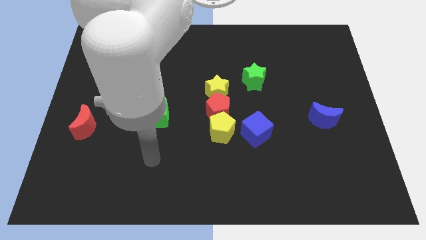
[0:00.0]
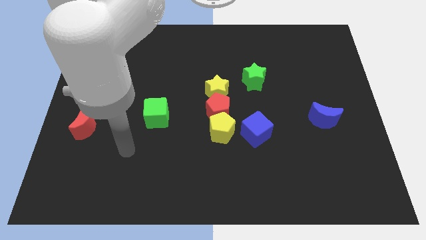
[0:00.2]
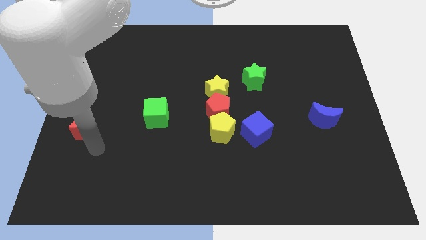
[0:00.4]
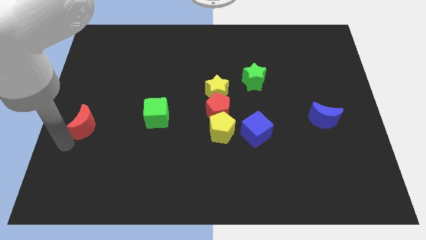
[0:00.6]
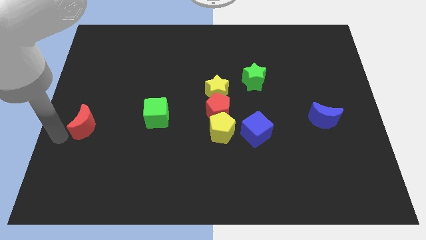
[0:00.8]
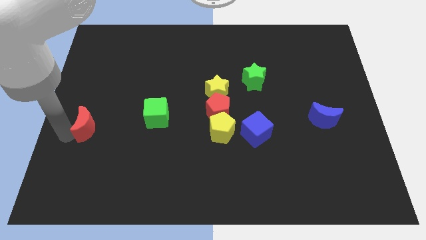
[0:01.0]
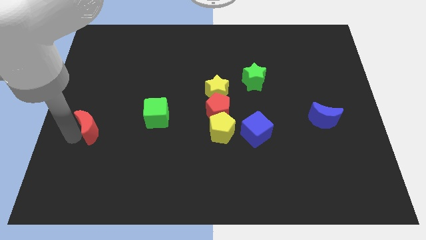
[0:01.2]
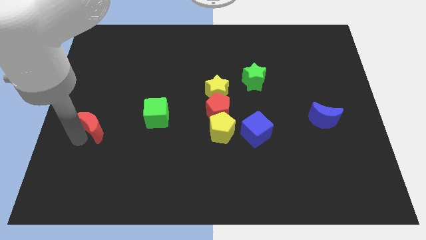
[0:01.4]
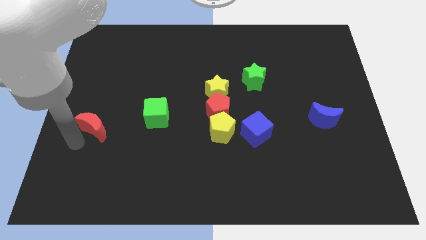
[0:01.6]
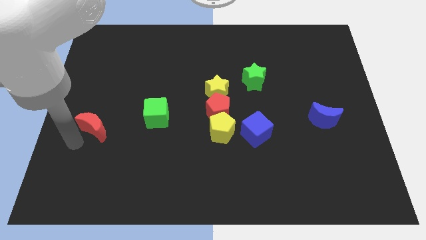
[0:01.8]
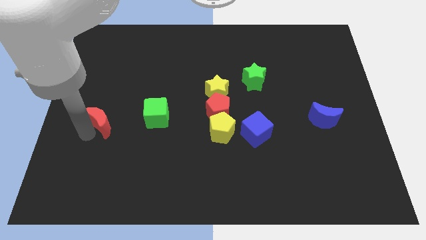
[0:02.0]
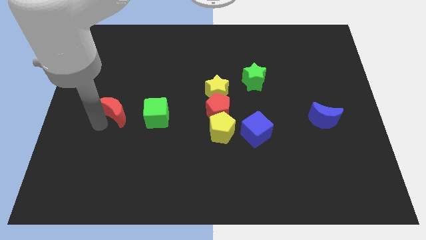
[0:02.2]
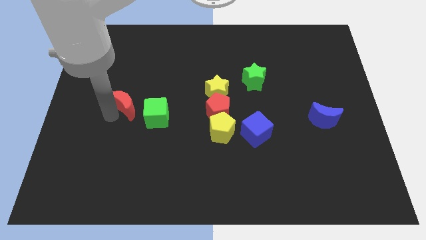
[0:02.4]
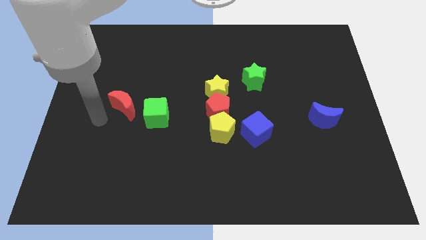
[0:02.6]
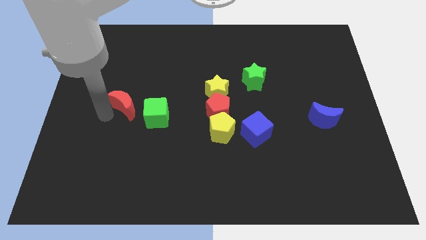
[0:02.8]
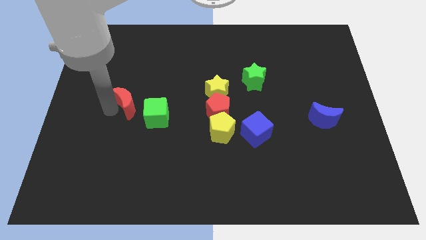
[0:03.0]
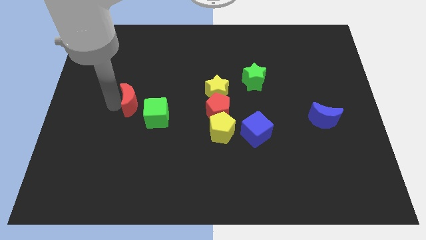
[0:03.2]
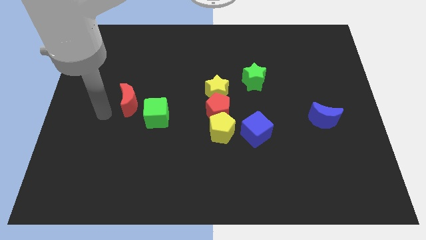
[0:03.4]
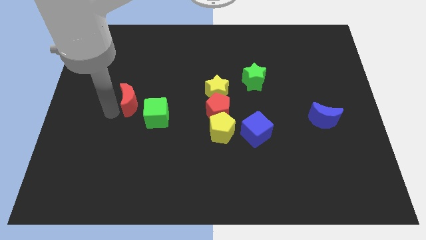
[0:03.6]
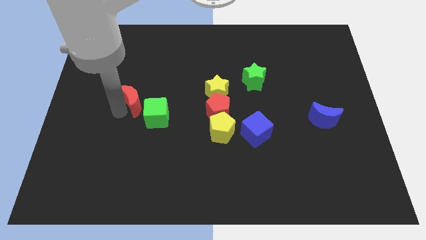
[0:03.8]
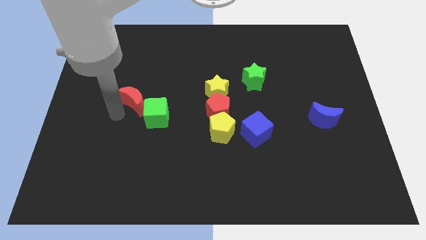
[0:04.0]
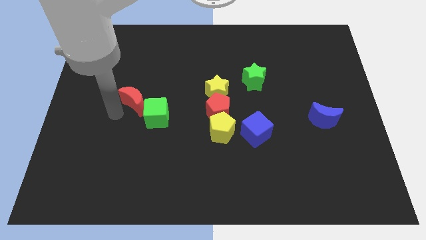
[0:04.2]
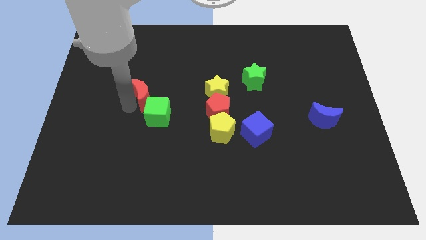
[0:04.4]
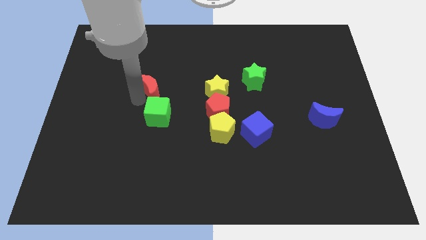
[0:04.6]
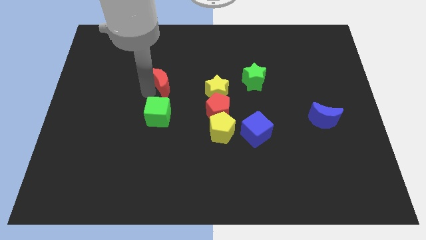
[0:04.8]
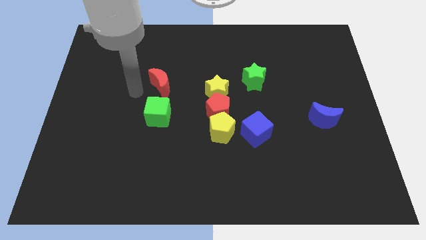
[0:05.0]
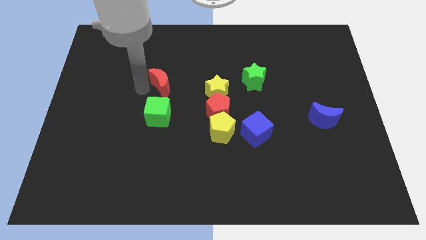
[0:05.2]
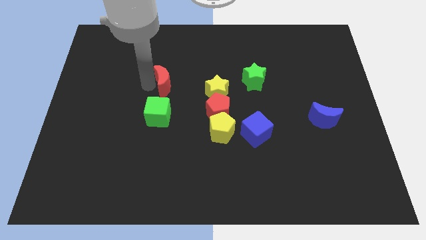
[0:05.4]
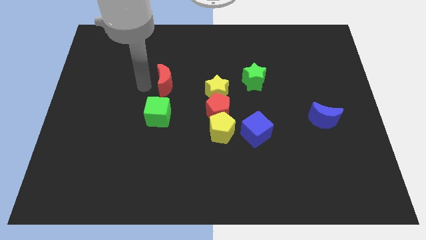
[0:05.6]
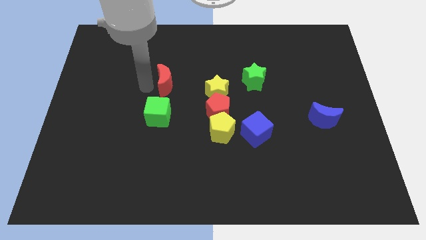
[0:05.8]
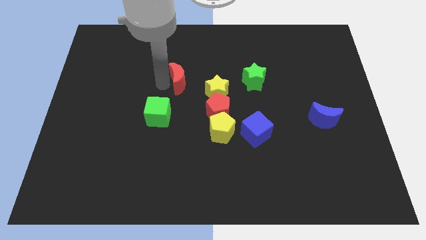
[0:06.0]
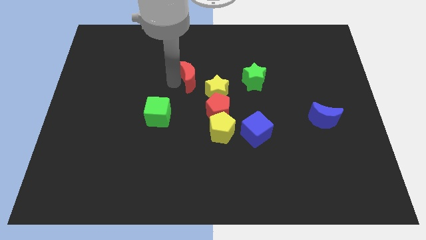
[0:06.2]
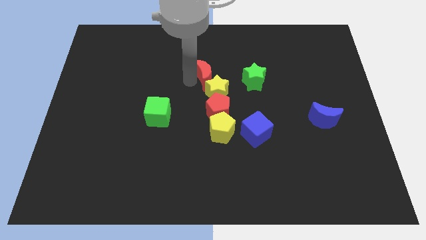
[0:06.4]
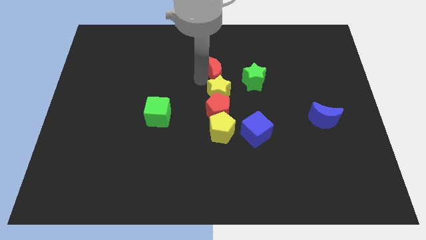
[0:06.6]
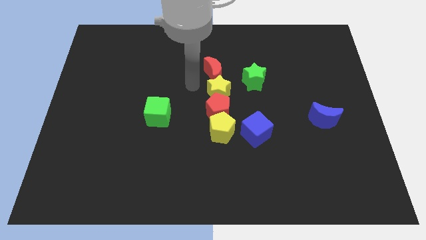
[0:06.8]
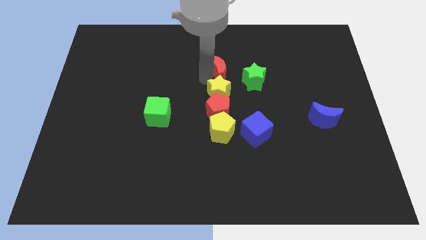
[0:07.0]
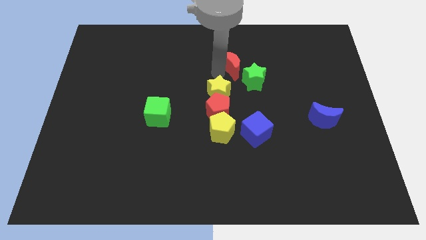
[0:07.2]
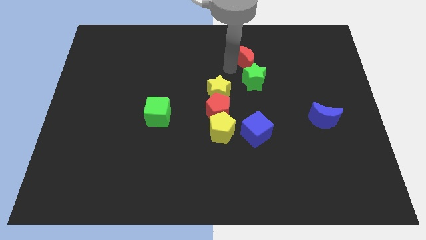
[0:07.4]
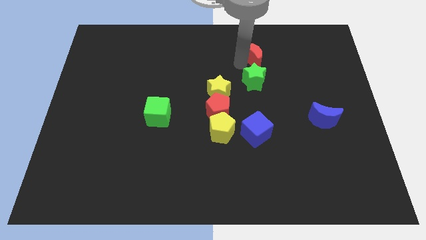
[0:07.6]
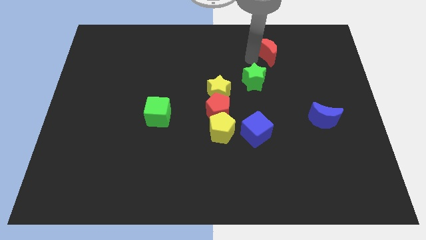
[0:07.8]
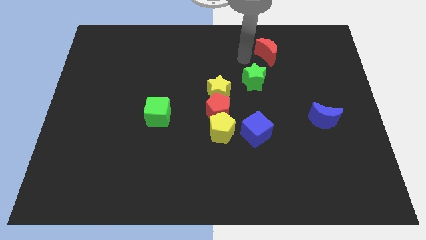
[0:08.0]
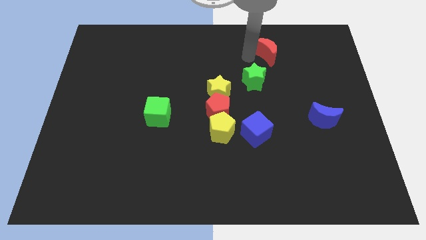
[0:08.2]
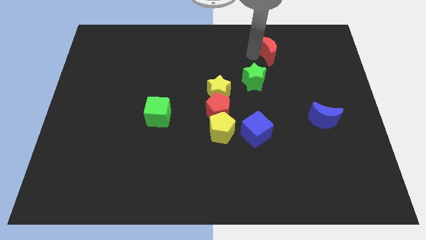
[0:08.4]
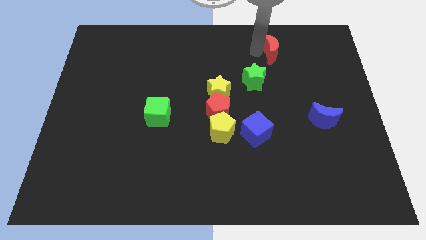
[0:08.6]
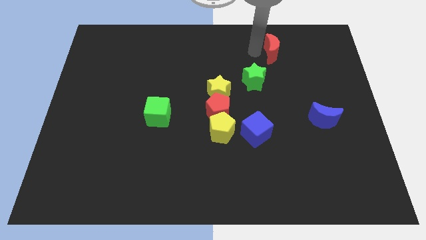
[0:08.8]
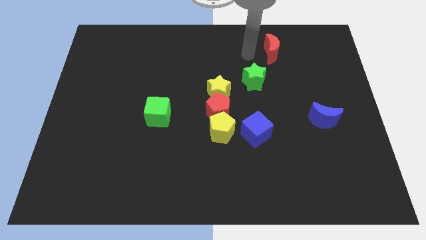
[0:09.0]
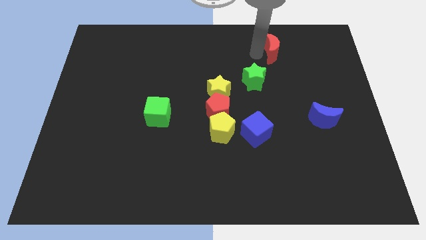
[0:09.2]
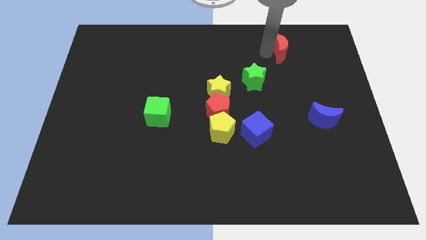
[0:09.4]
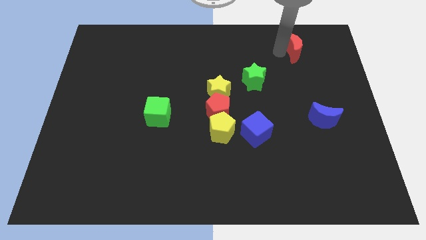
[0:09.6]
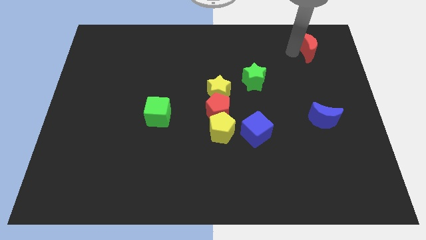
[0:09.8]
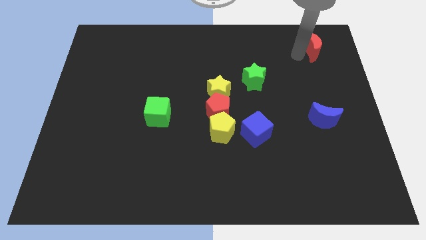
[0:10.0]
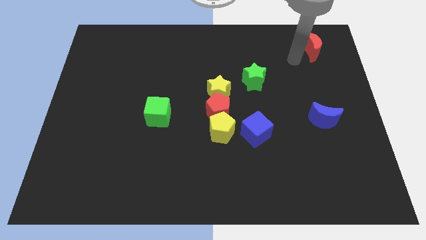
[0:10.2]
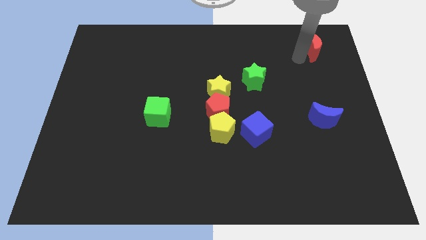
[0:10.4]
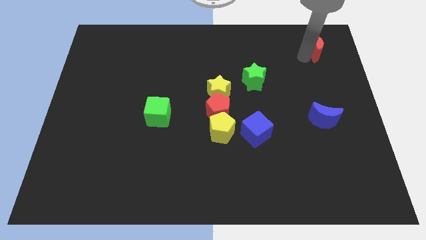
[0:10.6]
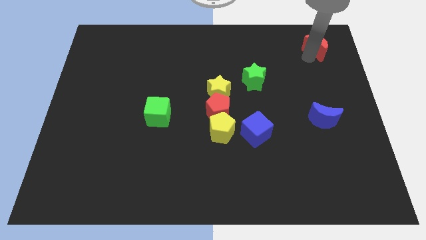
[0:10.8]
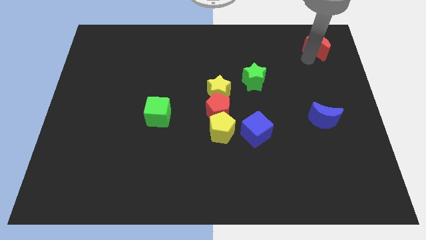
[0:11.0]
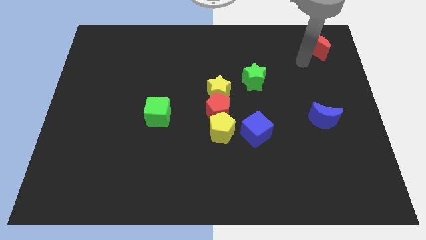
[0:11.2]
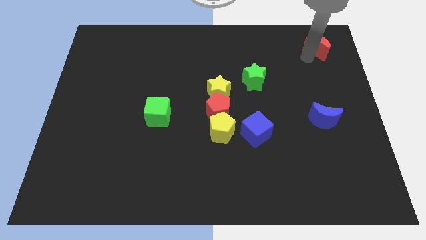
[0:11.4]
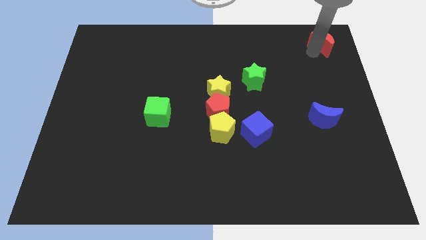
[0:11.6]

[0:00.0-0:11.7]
move the red moon to the top right of the board

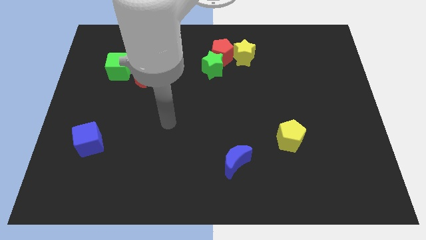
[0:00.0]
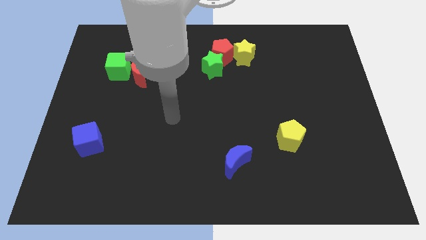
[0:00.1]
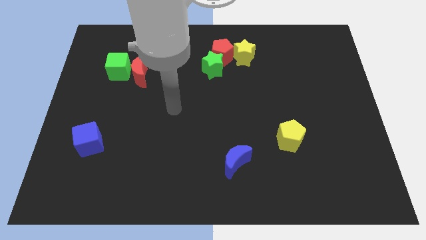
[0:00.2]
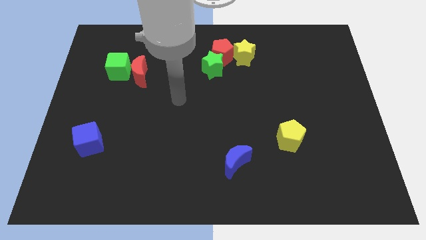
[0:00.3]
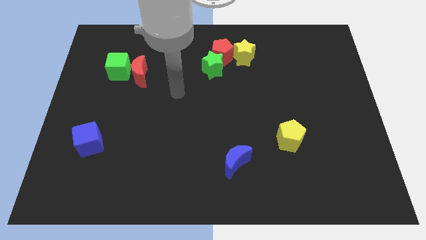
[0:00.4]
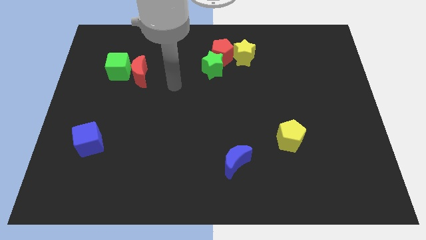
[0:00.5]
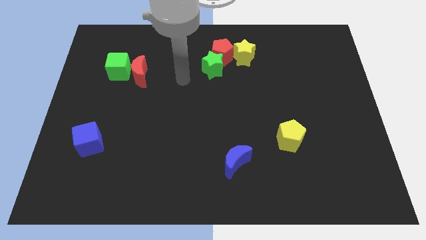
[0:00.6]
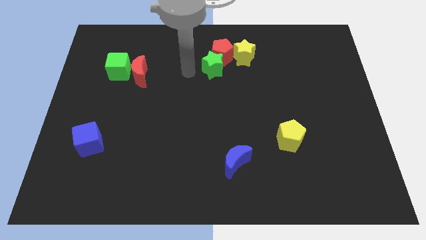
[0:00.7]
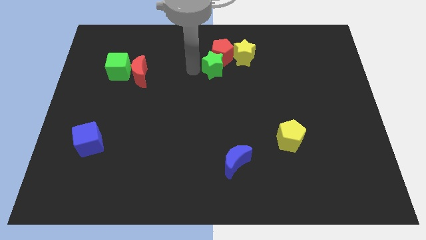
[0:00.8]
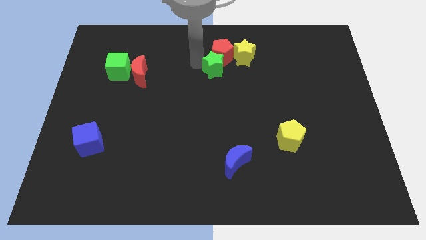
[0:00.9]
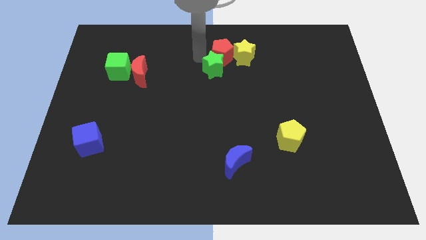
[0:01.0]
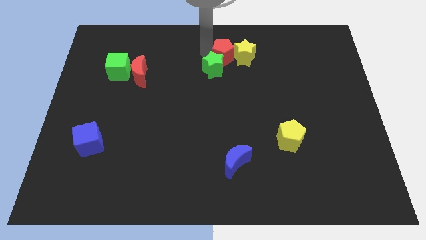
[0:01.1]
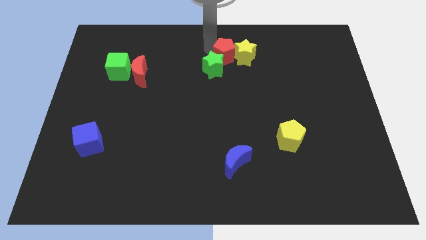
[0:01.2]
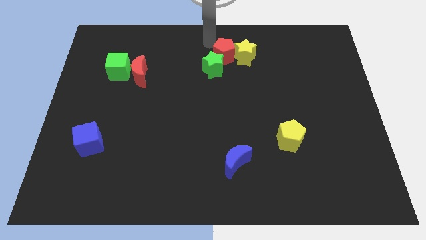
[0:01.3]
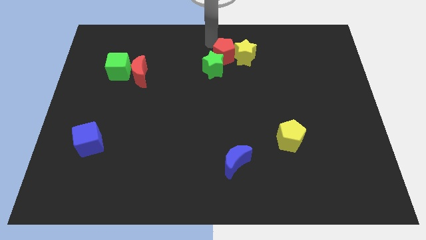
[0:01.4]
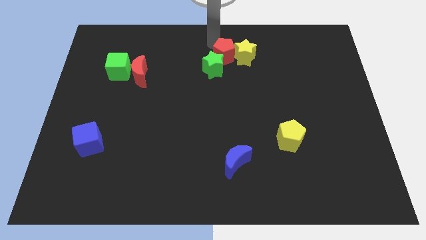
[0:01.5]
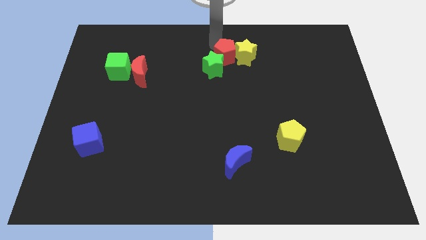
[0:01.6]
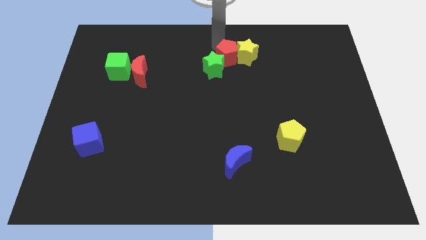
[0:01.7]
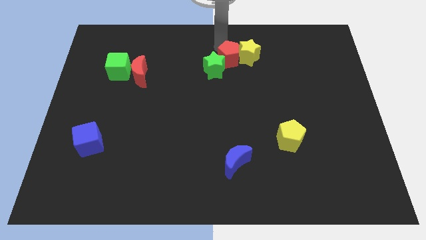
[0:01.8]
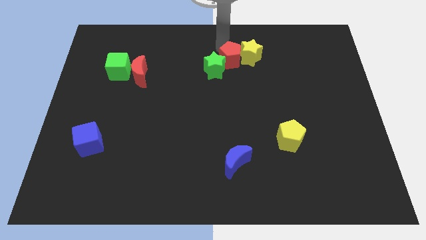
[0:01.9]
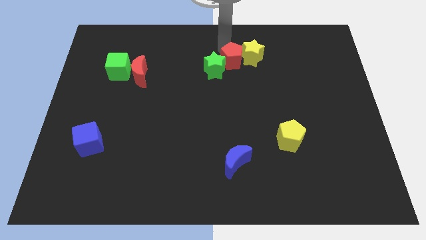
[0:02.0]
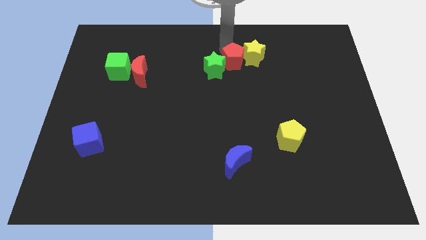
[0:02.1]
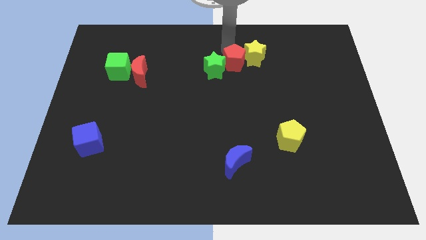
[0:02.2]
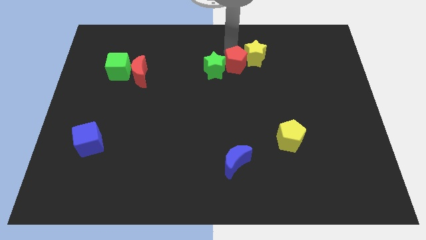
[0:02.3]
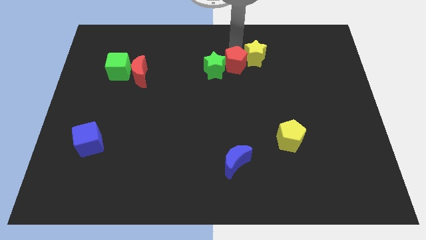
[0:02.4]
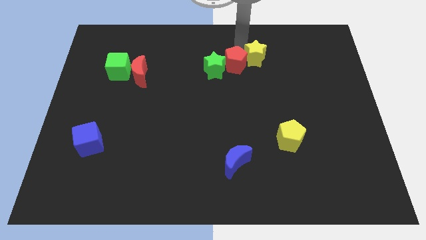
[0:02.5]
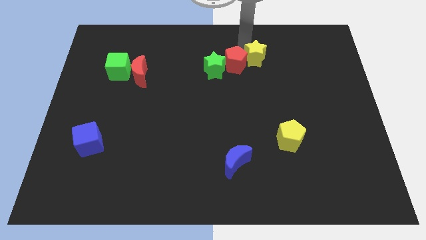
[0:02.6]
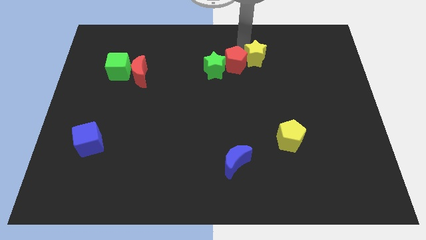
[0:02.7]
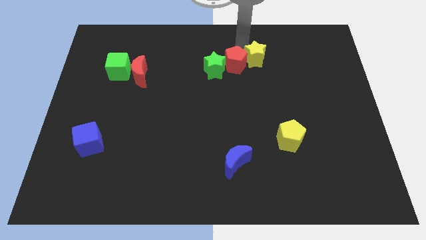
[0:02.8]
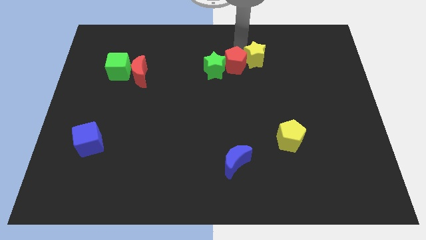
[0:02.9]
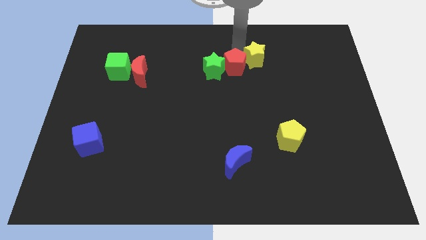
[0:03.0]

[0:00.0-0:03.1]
push the red pentagon to the middle of the board
